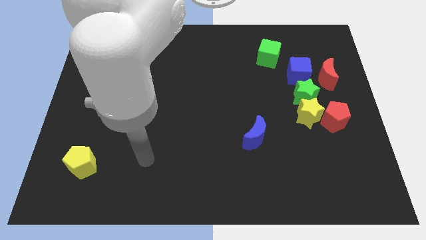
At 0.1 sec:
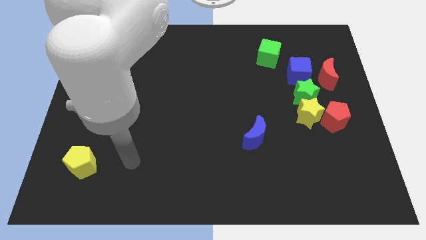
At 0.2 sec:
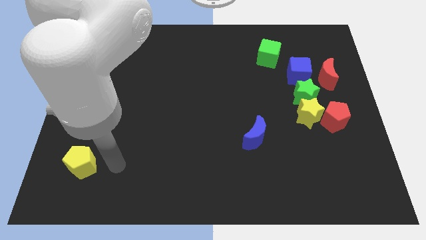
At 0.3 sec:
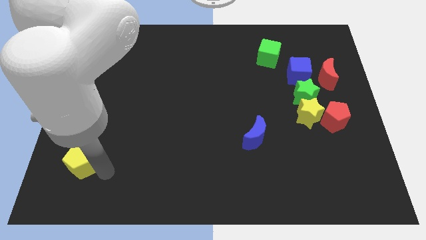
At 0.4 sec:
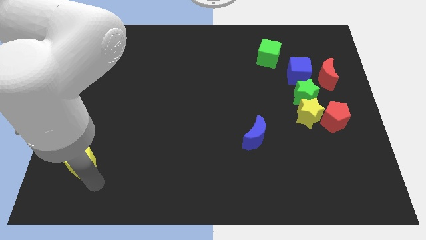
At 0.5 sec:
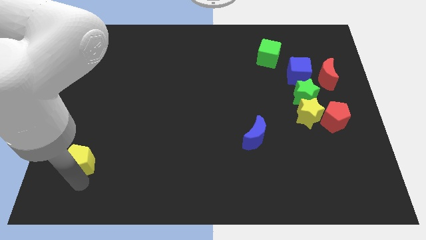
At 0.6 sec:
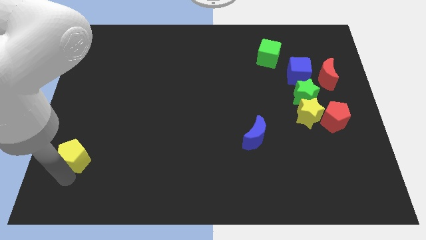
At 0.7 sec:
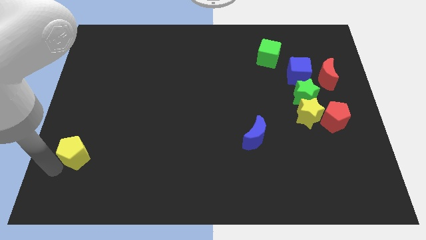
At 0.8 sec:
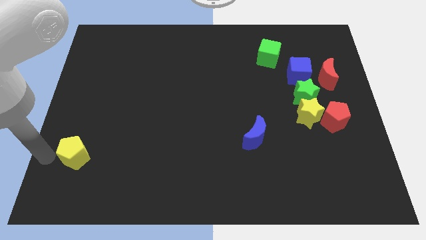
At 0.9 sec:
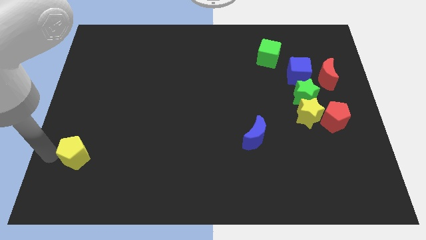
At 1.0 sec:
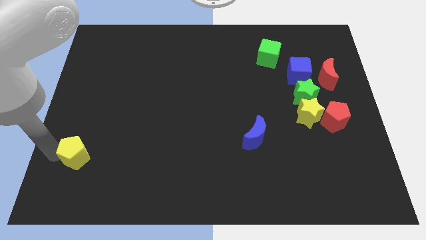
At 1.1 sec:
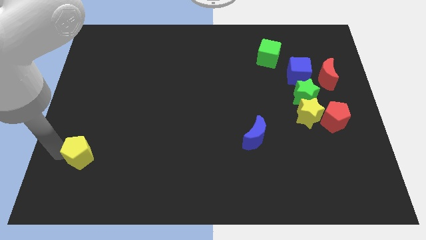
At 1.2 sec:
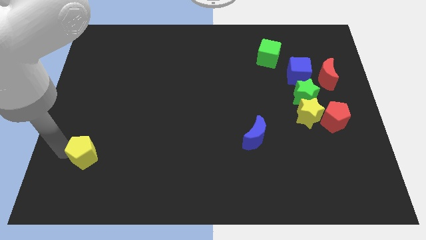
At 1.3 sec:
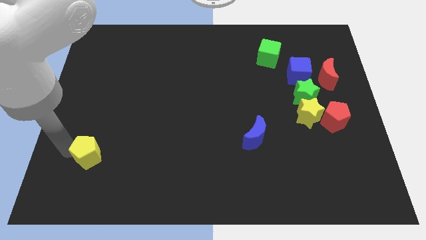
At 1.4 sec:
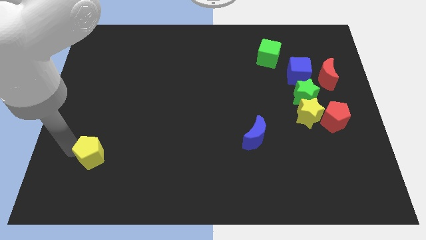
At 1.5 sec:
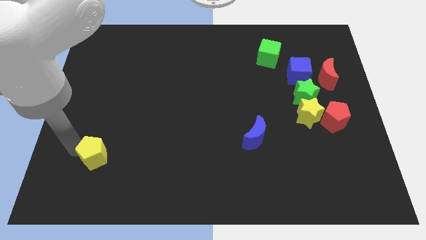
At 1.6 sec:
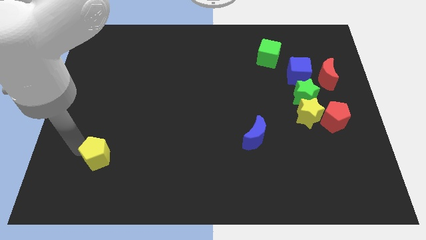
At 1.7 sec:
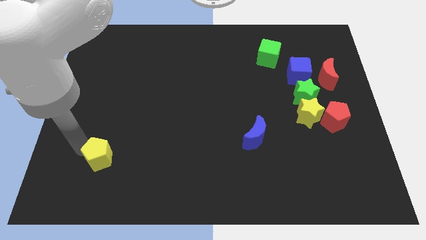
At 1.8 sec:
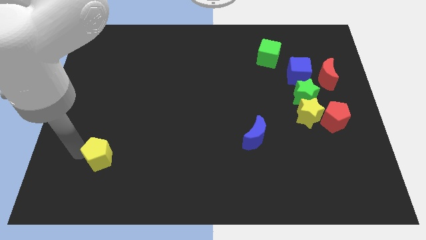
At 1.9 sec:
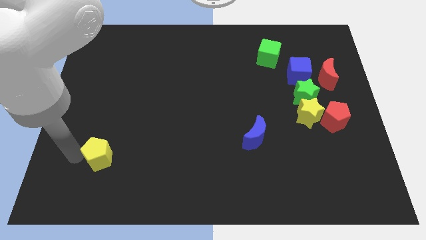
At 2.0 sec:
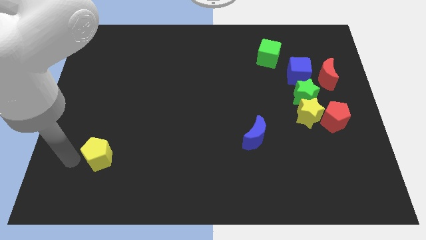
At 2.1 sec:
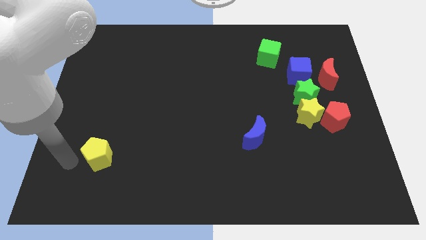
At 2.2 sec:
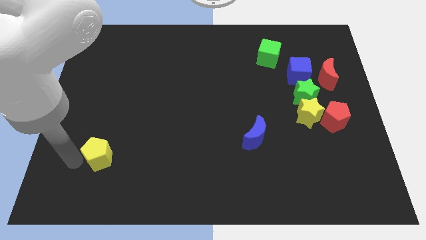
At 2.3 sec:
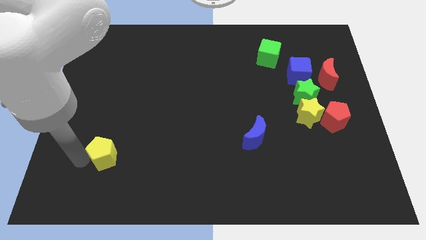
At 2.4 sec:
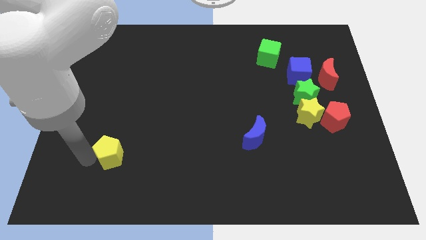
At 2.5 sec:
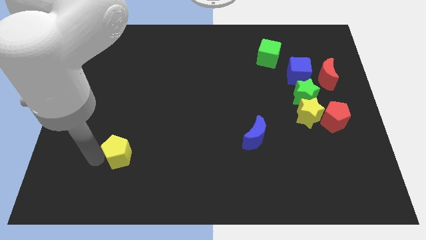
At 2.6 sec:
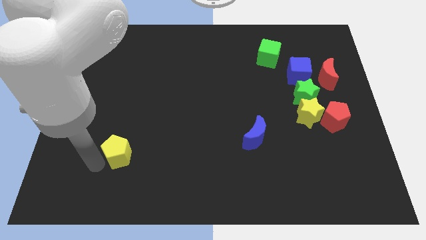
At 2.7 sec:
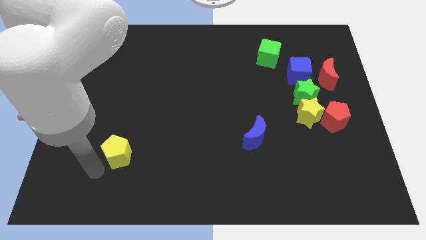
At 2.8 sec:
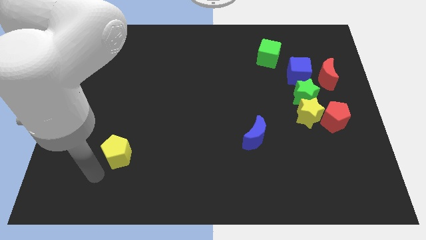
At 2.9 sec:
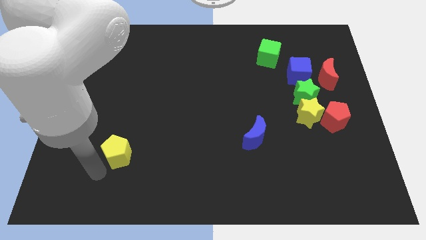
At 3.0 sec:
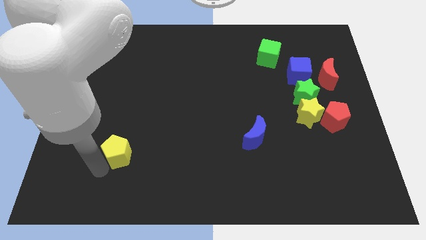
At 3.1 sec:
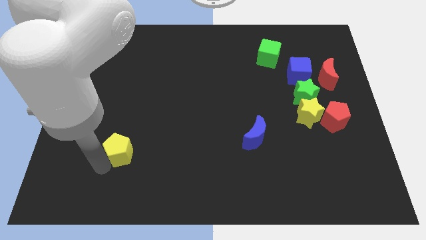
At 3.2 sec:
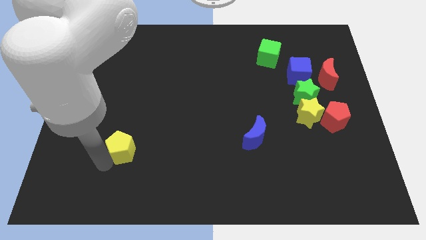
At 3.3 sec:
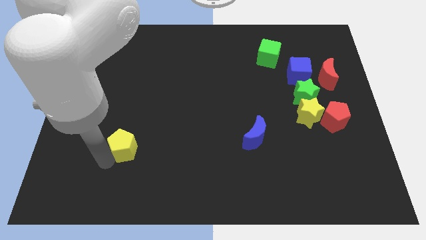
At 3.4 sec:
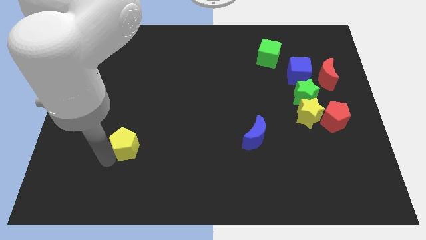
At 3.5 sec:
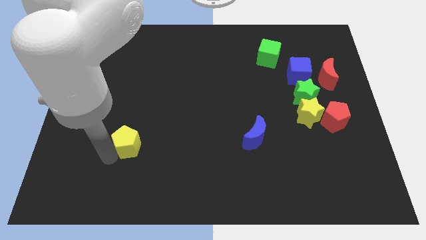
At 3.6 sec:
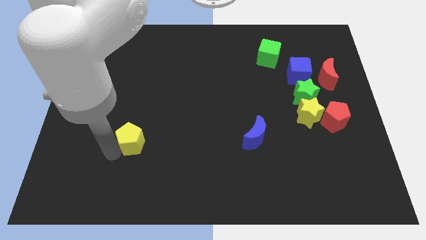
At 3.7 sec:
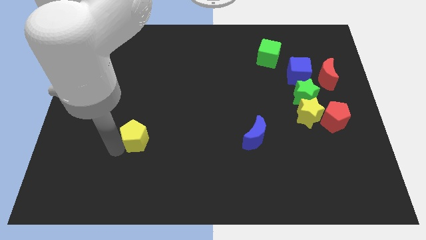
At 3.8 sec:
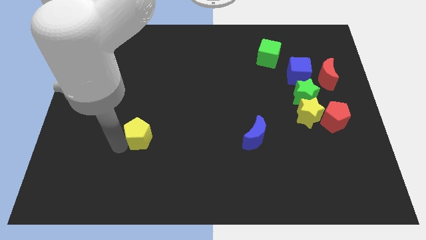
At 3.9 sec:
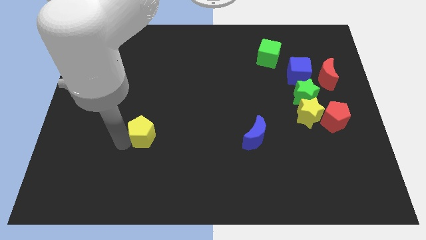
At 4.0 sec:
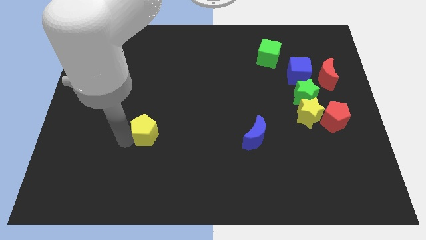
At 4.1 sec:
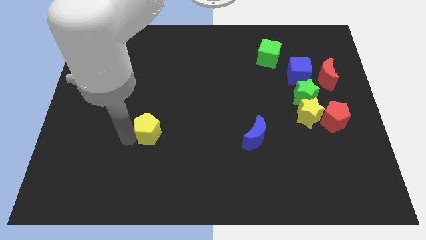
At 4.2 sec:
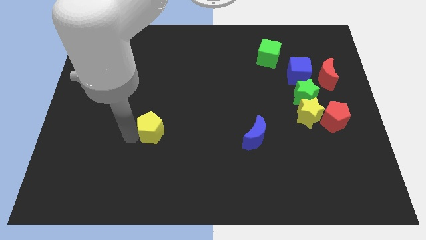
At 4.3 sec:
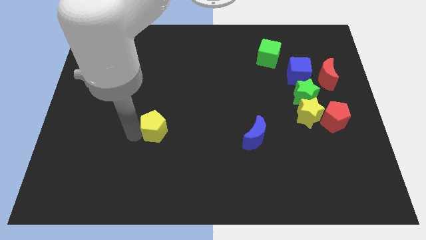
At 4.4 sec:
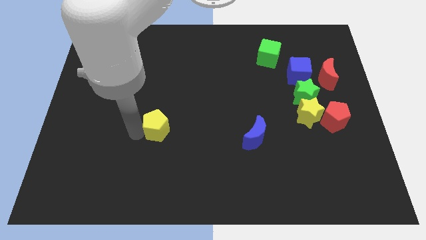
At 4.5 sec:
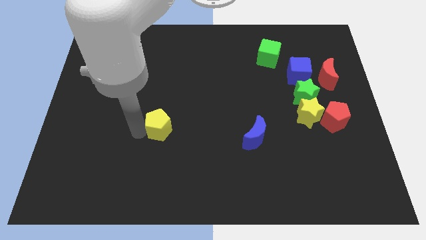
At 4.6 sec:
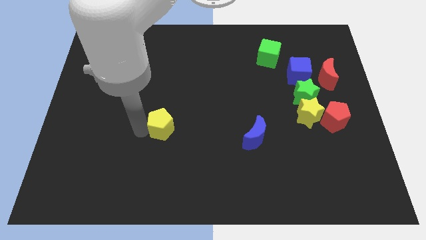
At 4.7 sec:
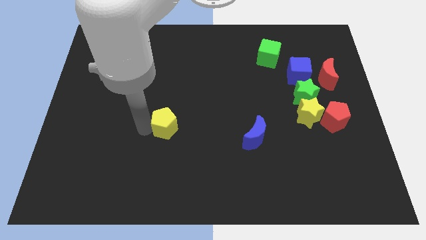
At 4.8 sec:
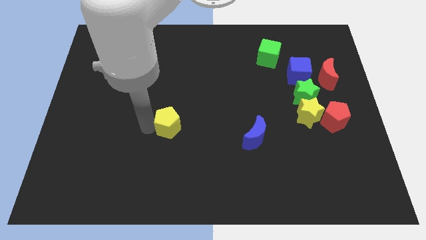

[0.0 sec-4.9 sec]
put the yellow pentagon to the middle of the board

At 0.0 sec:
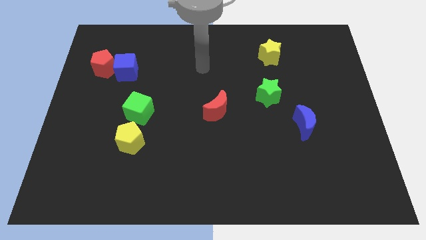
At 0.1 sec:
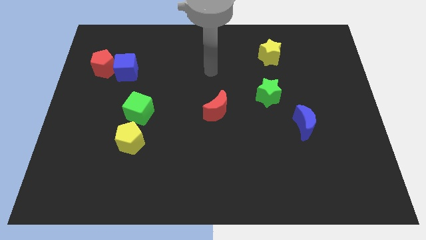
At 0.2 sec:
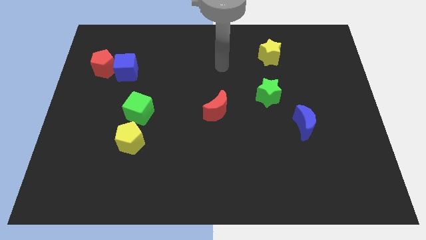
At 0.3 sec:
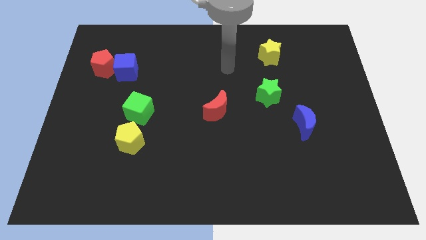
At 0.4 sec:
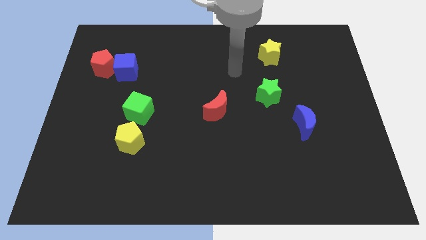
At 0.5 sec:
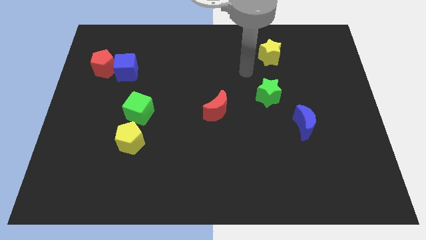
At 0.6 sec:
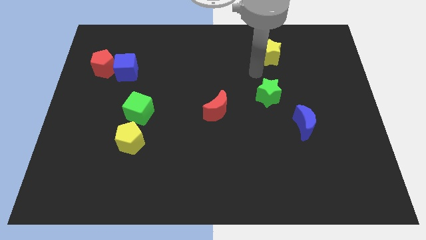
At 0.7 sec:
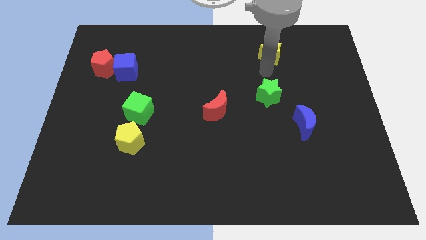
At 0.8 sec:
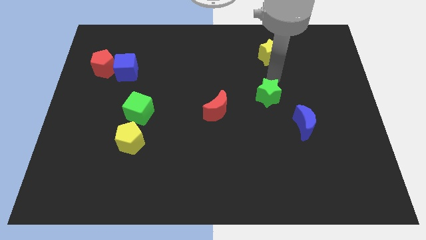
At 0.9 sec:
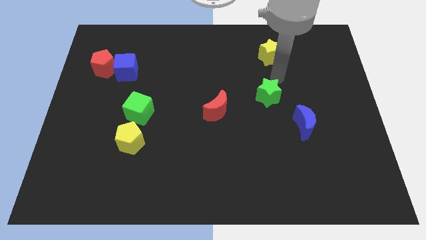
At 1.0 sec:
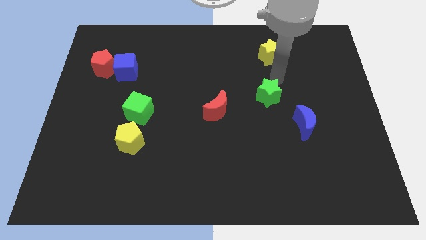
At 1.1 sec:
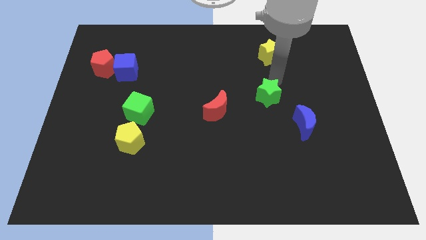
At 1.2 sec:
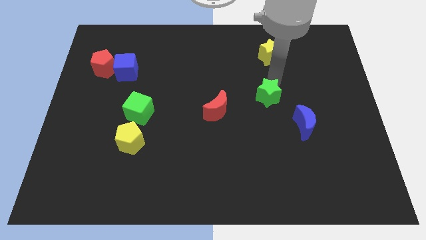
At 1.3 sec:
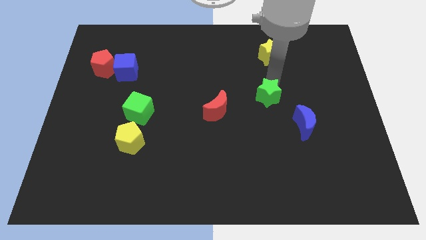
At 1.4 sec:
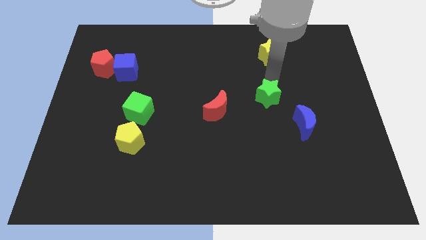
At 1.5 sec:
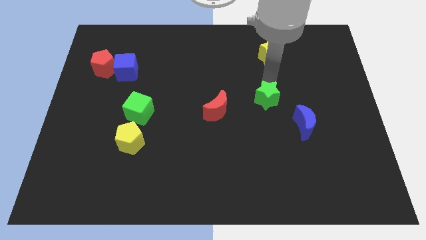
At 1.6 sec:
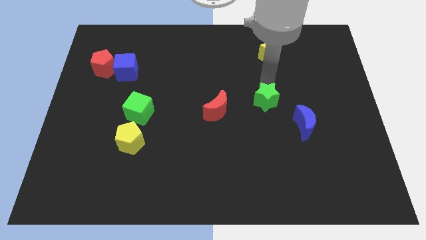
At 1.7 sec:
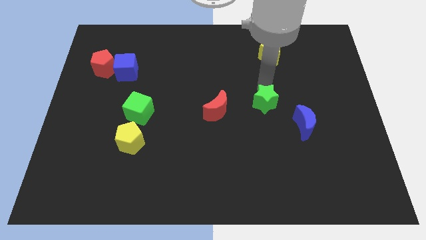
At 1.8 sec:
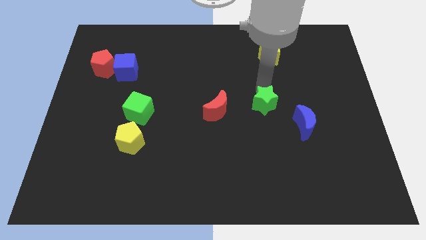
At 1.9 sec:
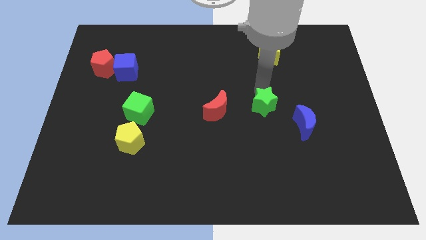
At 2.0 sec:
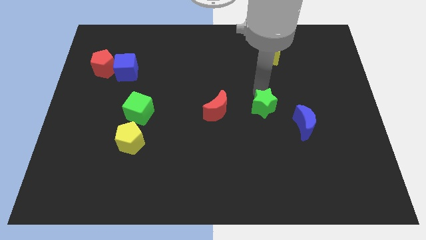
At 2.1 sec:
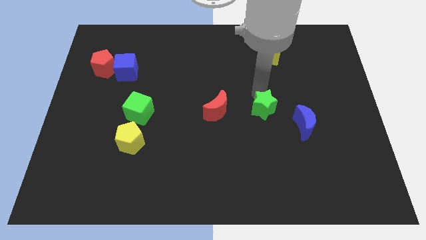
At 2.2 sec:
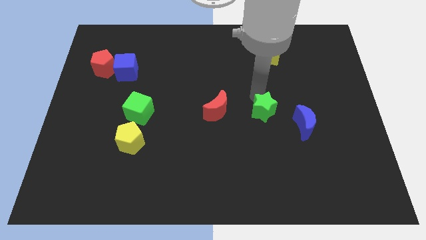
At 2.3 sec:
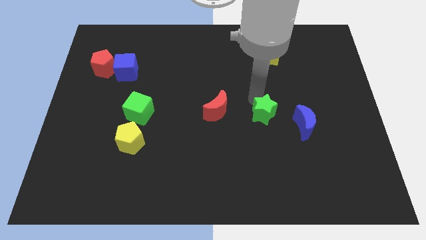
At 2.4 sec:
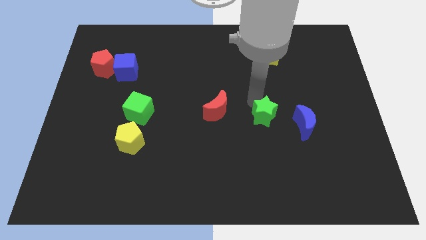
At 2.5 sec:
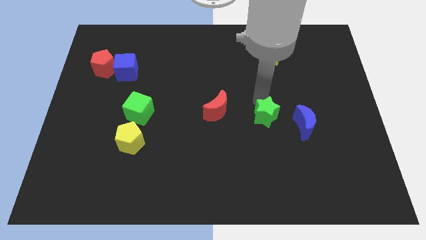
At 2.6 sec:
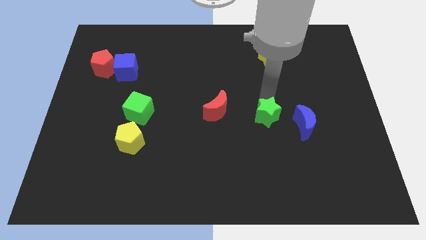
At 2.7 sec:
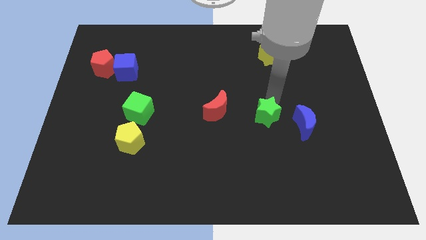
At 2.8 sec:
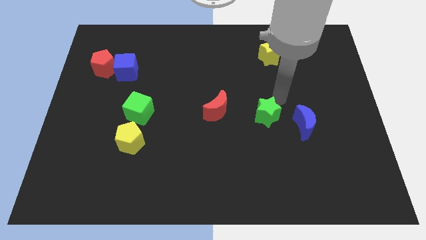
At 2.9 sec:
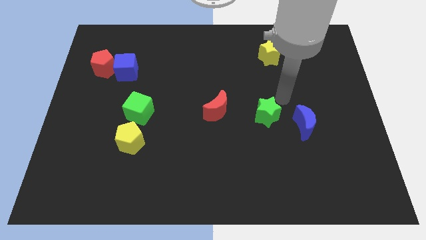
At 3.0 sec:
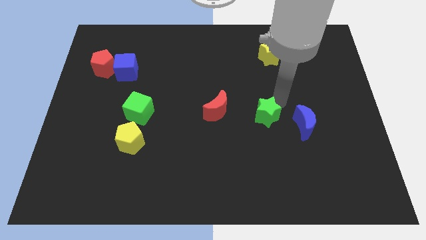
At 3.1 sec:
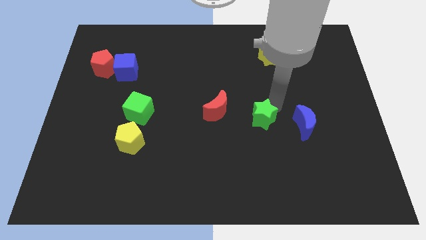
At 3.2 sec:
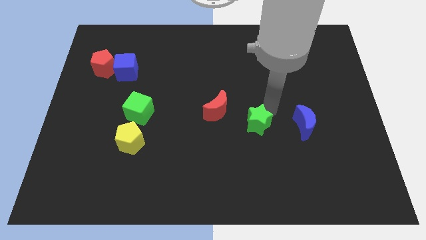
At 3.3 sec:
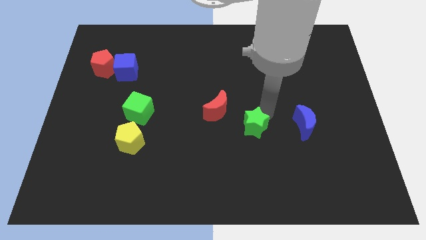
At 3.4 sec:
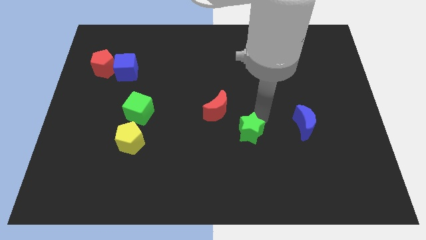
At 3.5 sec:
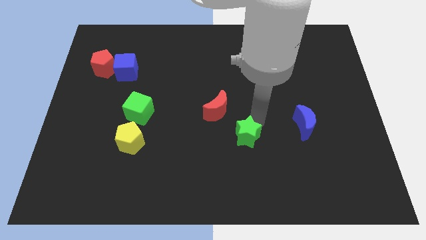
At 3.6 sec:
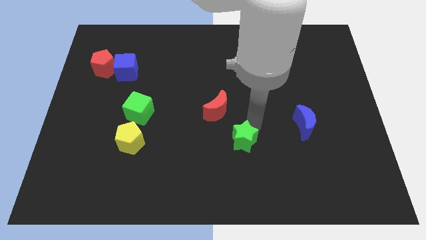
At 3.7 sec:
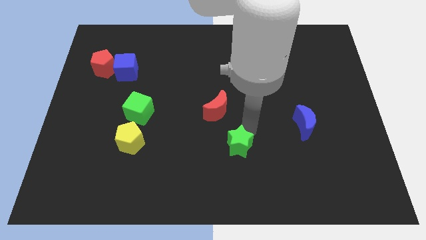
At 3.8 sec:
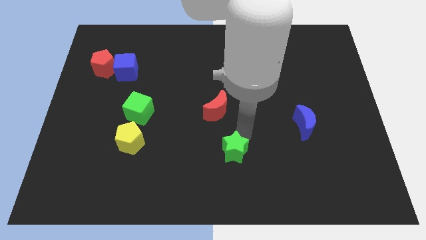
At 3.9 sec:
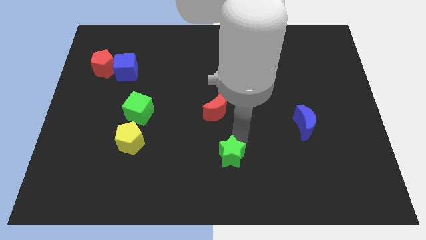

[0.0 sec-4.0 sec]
push the green star to the bottom
